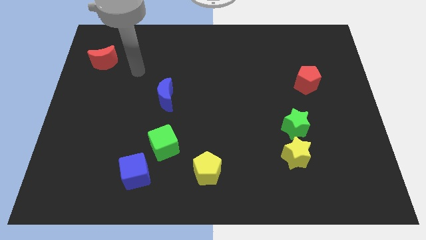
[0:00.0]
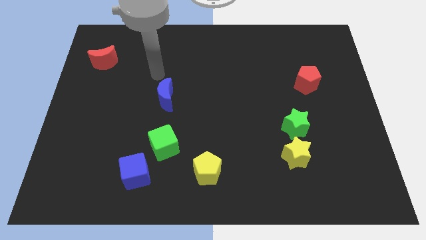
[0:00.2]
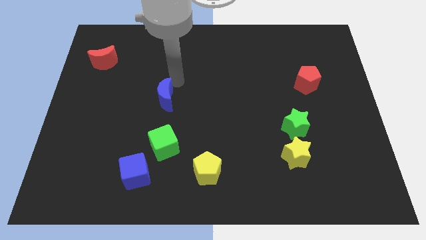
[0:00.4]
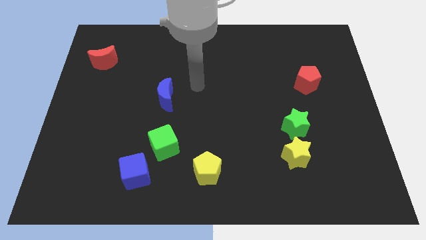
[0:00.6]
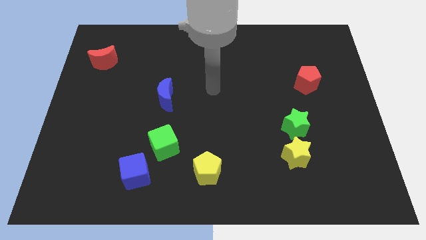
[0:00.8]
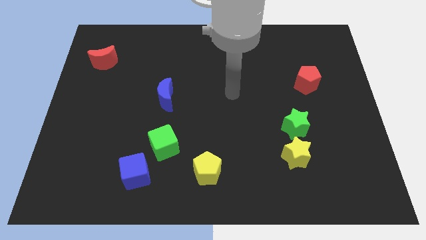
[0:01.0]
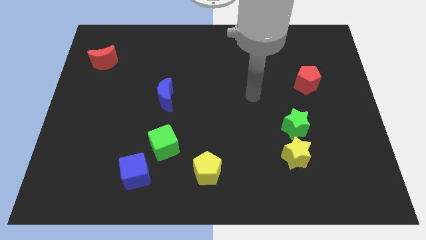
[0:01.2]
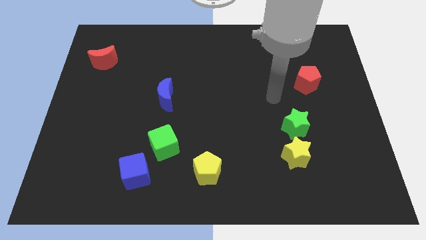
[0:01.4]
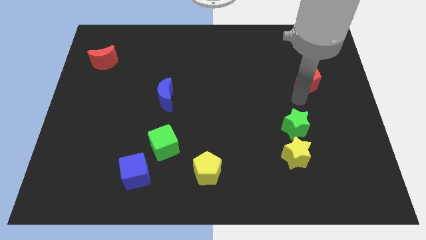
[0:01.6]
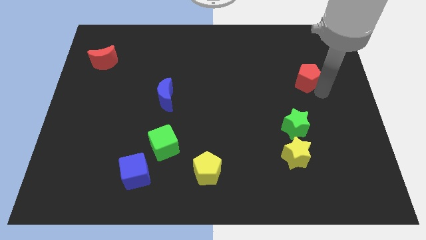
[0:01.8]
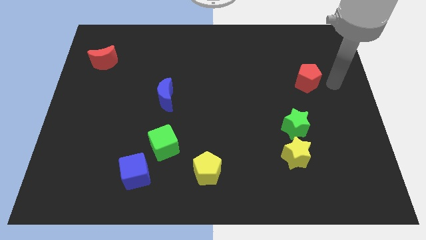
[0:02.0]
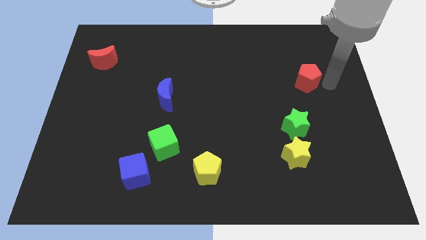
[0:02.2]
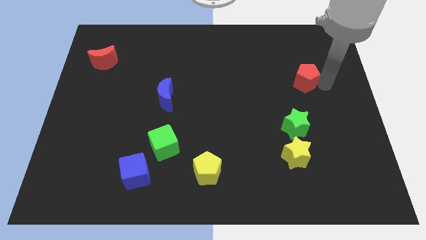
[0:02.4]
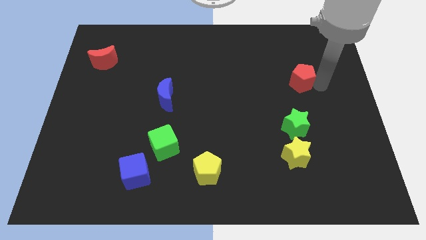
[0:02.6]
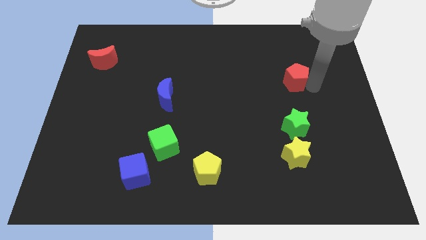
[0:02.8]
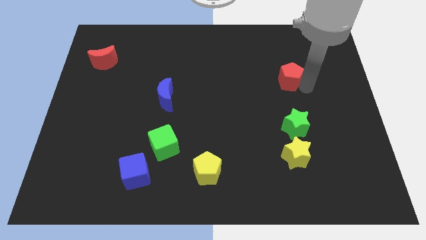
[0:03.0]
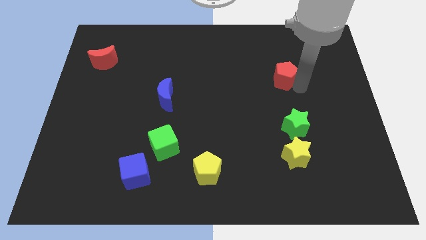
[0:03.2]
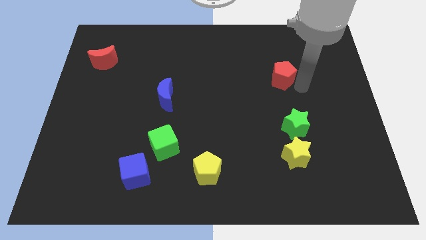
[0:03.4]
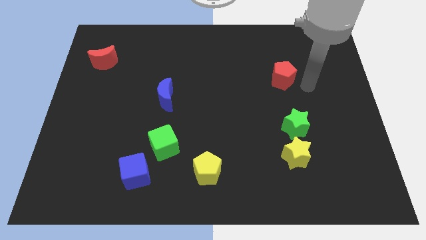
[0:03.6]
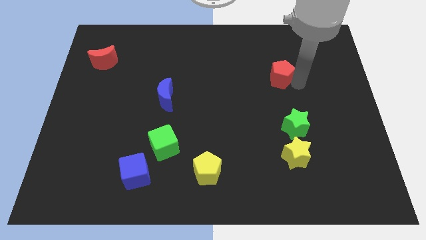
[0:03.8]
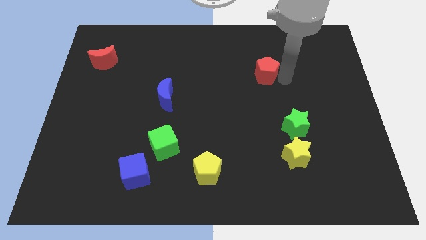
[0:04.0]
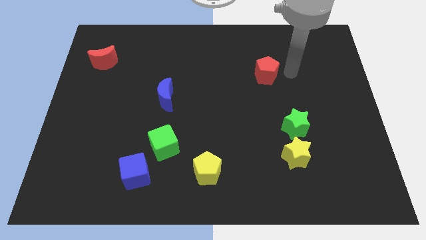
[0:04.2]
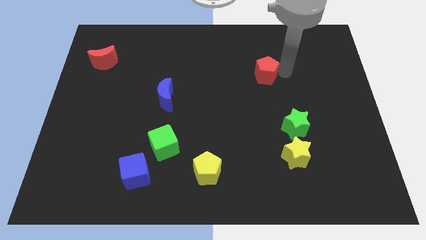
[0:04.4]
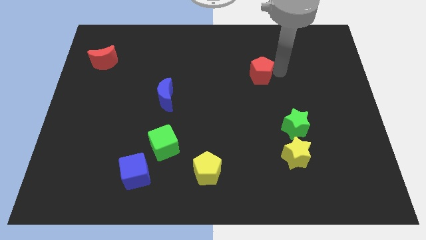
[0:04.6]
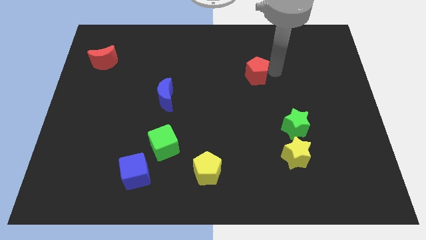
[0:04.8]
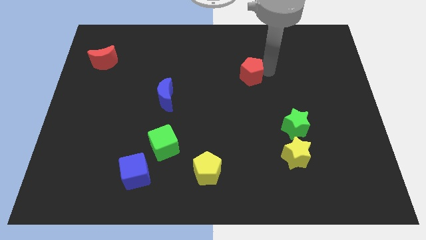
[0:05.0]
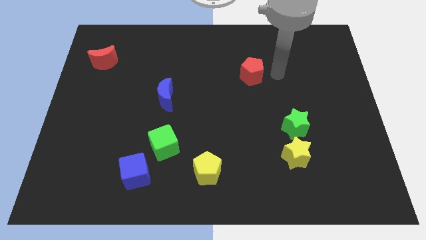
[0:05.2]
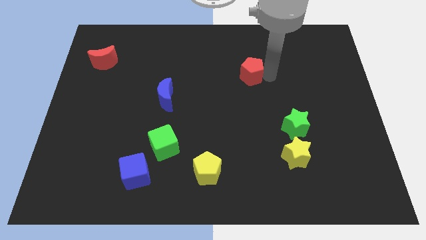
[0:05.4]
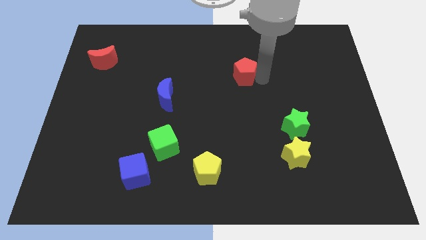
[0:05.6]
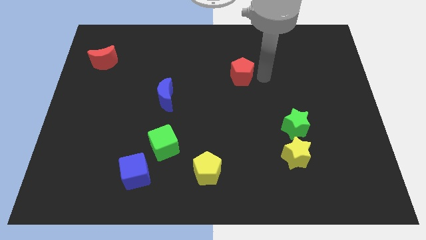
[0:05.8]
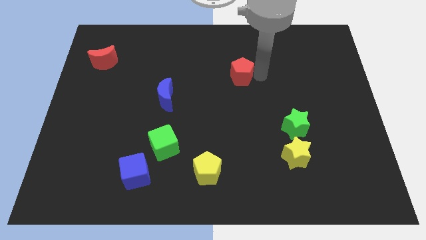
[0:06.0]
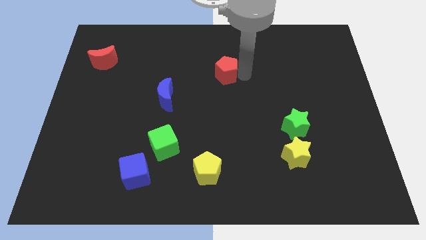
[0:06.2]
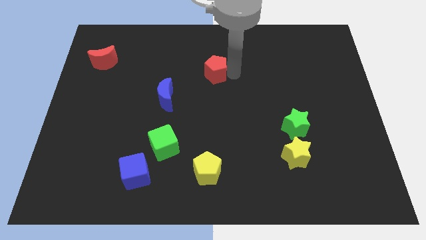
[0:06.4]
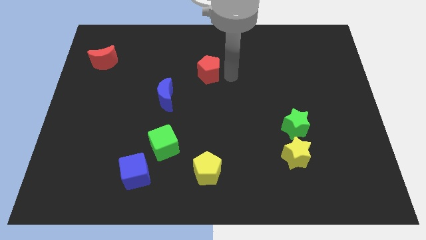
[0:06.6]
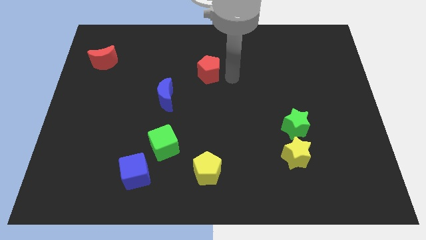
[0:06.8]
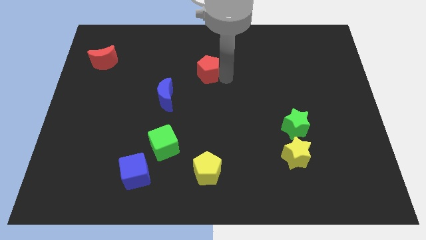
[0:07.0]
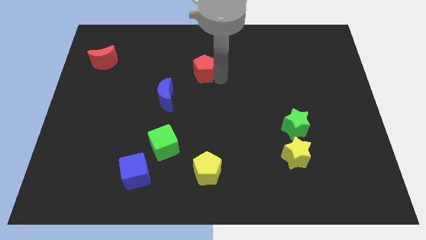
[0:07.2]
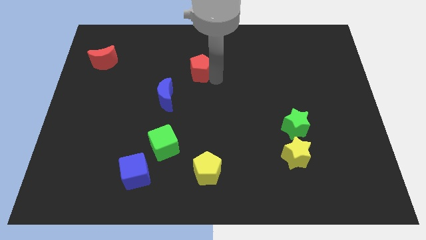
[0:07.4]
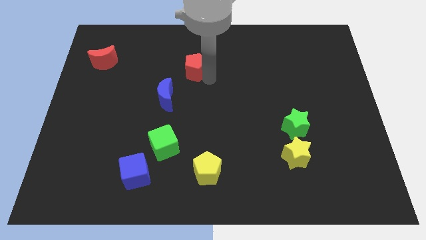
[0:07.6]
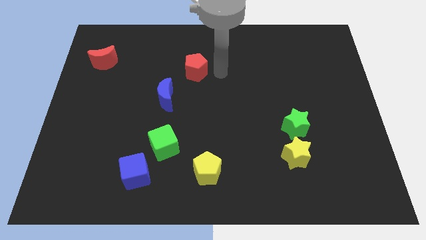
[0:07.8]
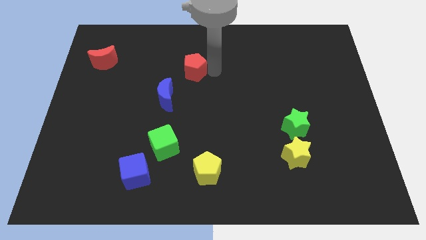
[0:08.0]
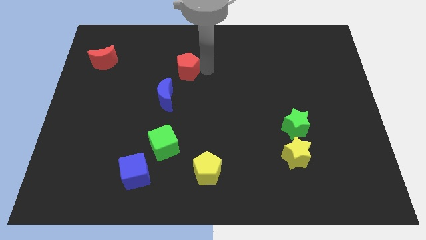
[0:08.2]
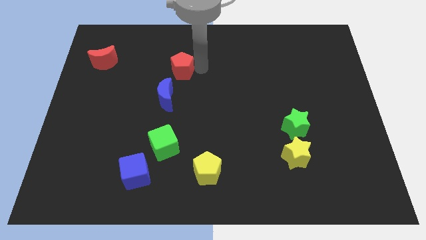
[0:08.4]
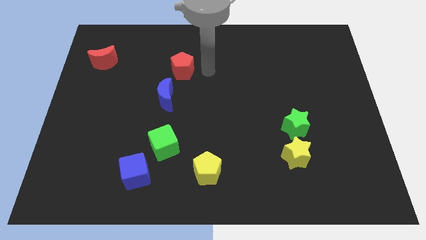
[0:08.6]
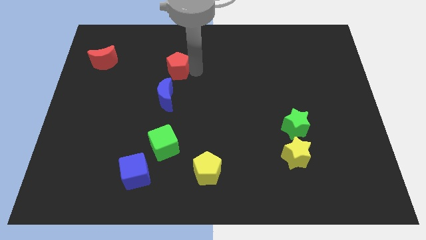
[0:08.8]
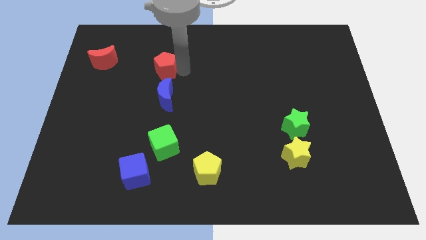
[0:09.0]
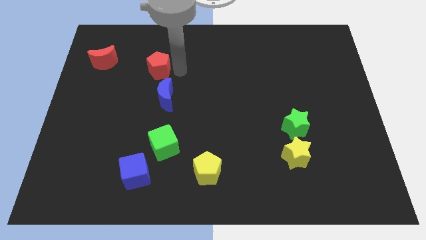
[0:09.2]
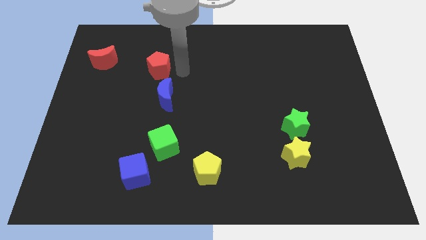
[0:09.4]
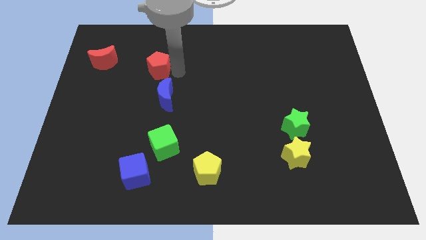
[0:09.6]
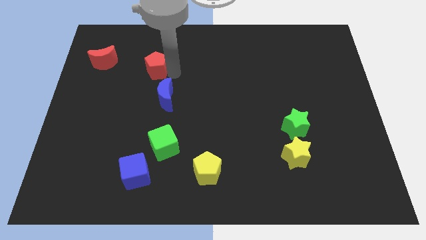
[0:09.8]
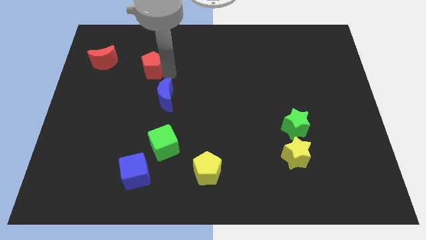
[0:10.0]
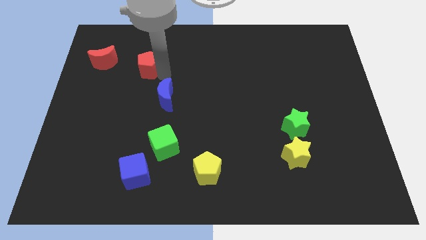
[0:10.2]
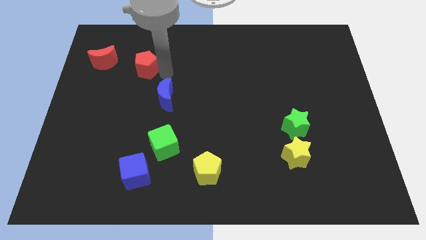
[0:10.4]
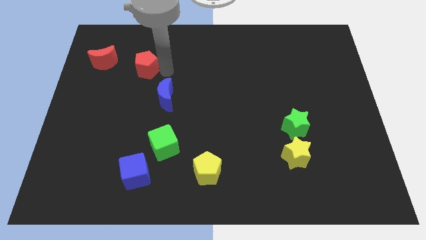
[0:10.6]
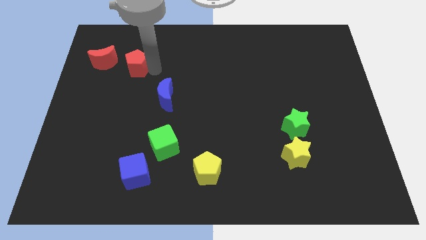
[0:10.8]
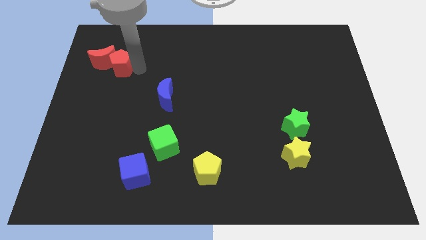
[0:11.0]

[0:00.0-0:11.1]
put the red pentagon to the red moon

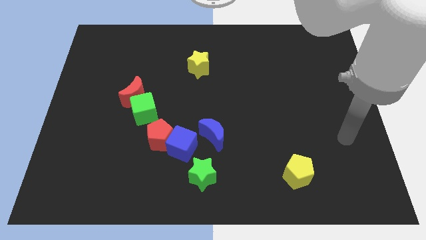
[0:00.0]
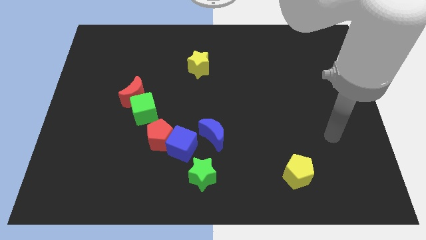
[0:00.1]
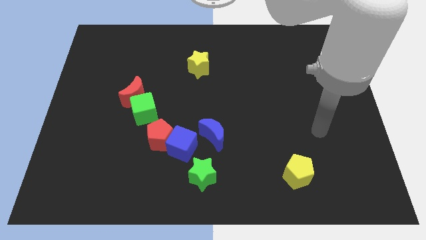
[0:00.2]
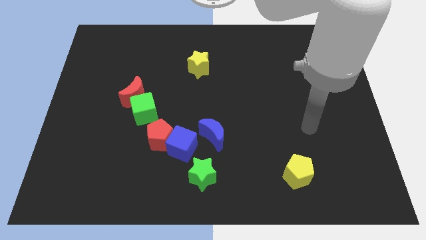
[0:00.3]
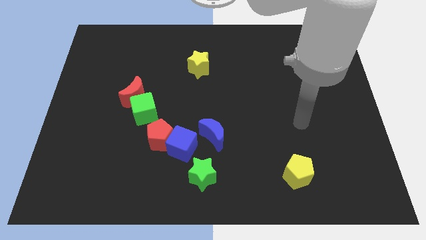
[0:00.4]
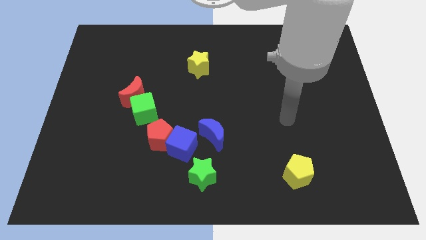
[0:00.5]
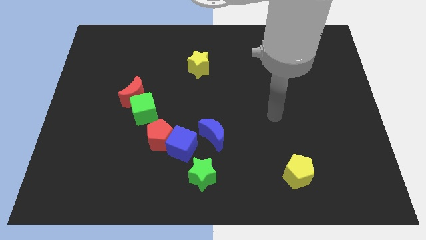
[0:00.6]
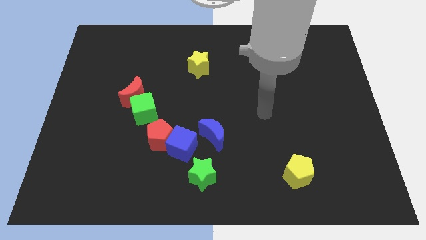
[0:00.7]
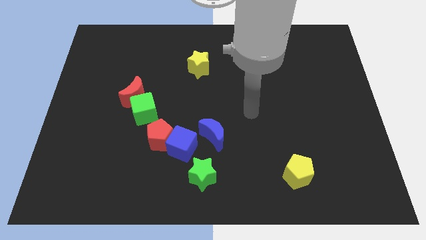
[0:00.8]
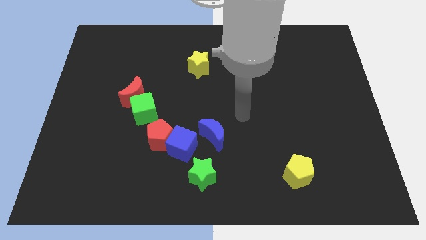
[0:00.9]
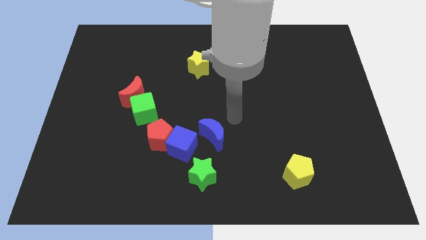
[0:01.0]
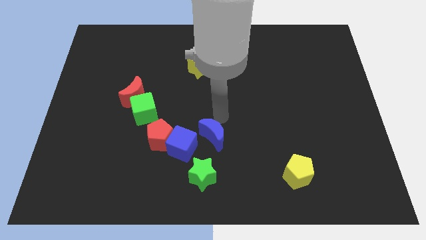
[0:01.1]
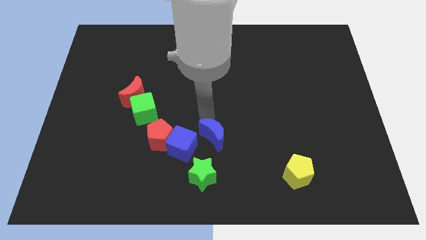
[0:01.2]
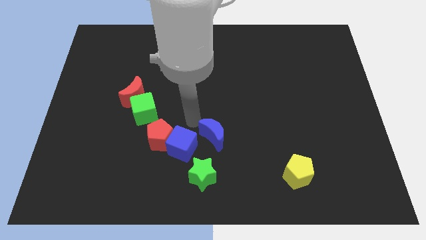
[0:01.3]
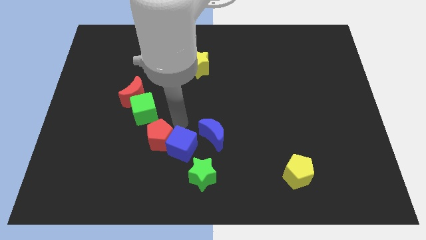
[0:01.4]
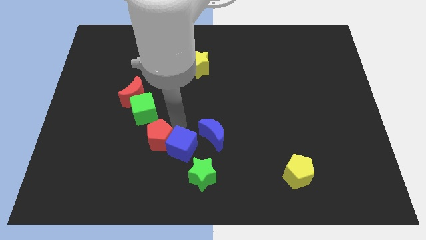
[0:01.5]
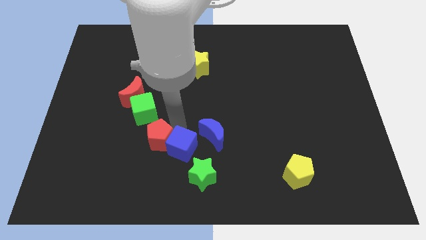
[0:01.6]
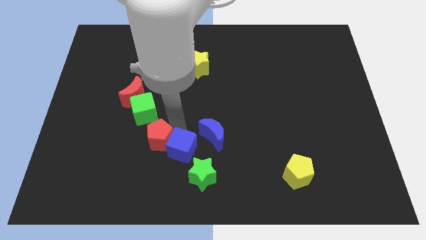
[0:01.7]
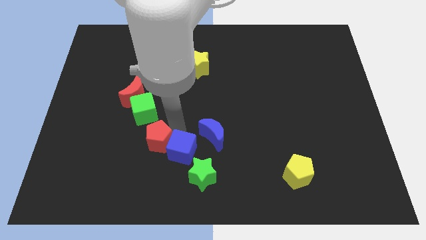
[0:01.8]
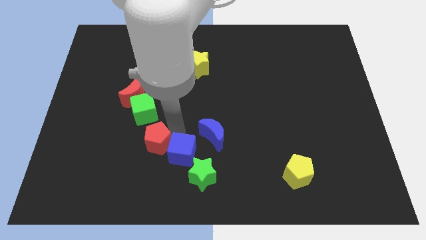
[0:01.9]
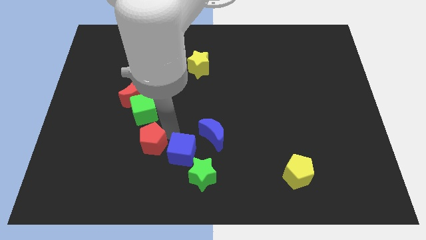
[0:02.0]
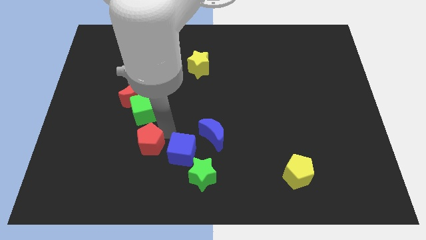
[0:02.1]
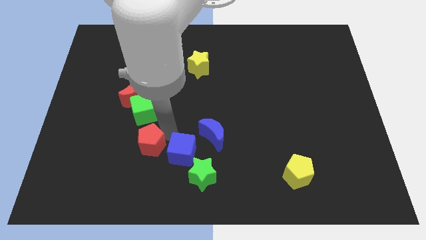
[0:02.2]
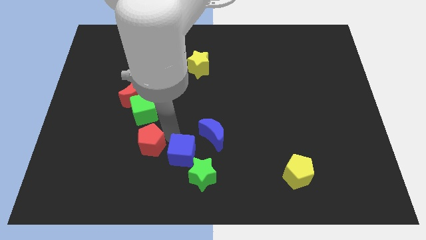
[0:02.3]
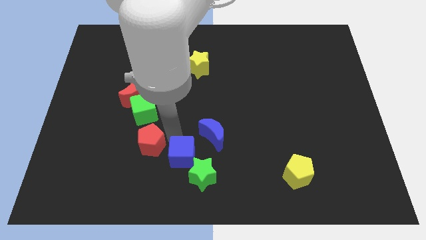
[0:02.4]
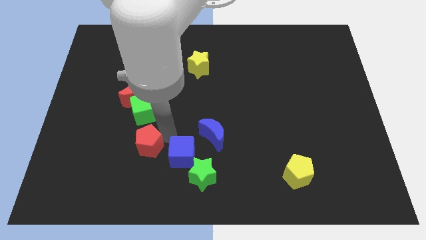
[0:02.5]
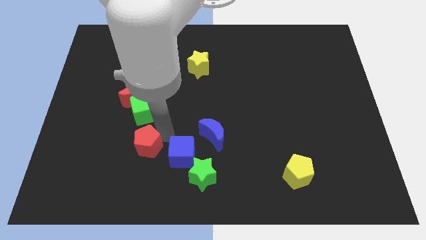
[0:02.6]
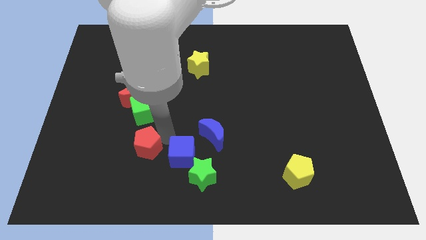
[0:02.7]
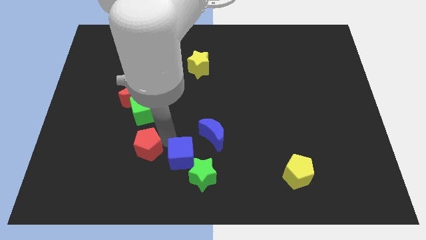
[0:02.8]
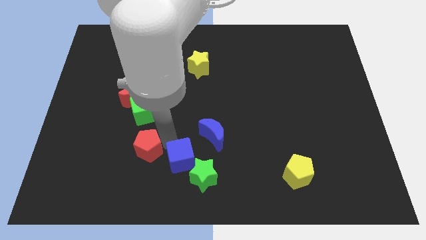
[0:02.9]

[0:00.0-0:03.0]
slide the blue cube to the green star
